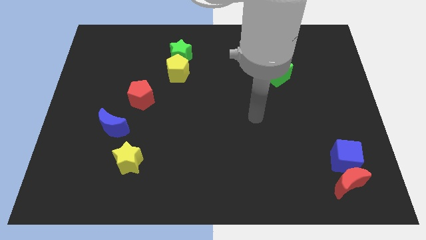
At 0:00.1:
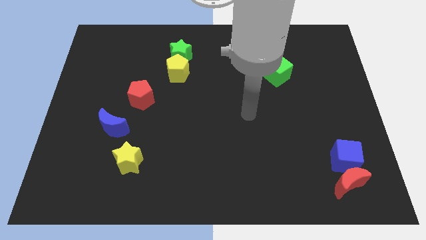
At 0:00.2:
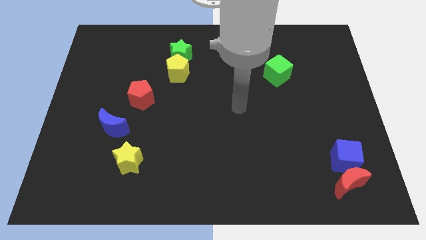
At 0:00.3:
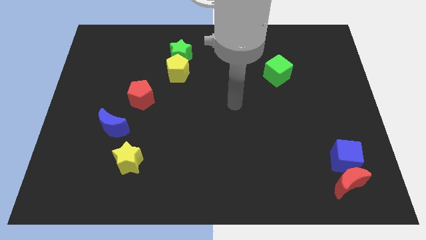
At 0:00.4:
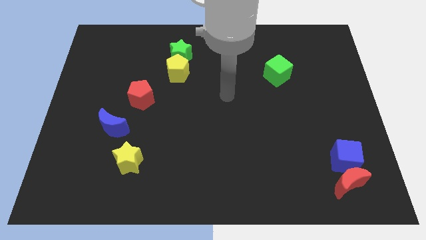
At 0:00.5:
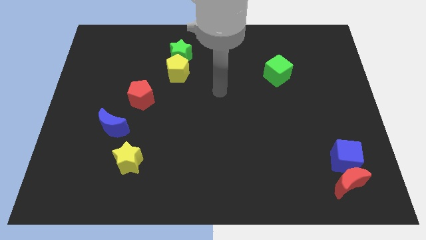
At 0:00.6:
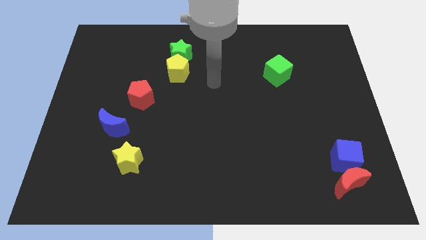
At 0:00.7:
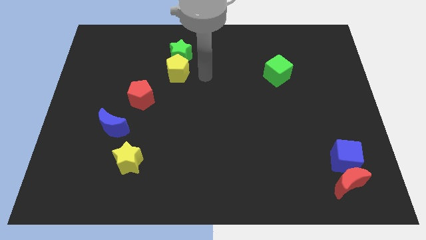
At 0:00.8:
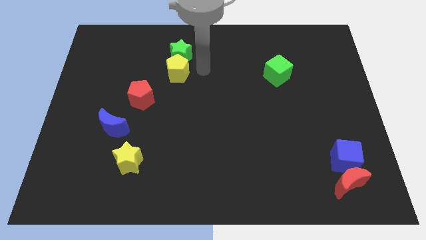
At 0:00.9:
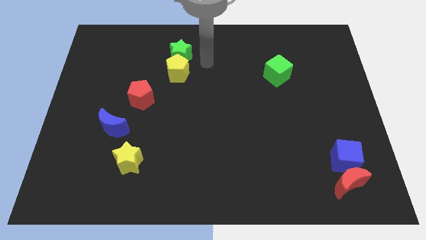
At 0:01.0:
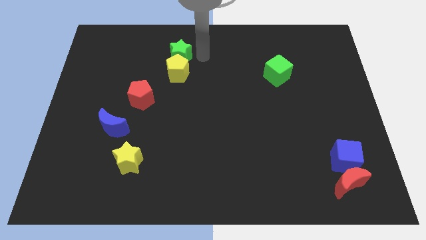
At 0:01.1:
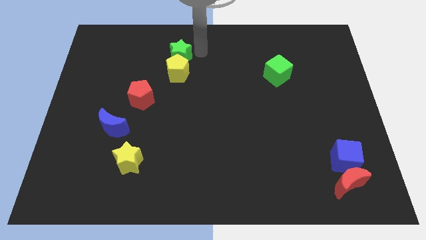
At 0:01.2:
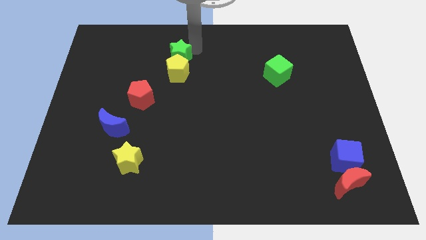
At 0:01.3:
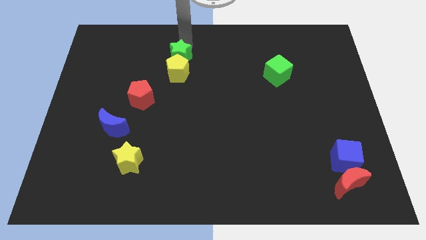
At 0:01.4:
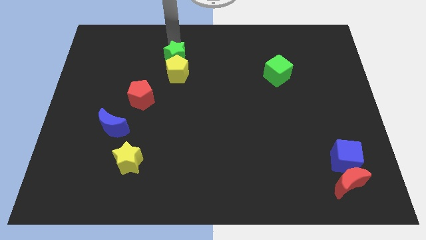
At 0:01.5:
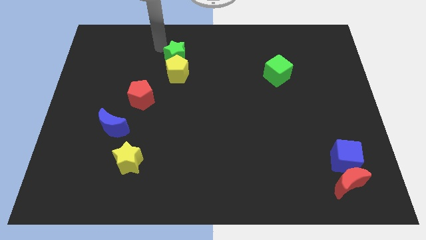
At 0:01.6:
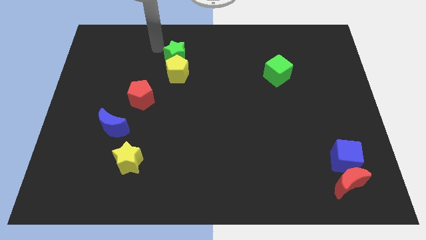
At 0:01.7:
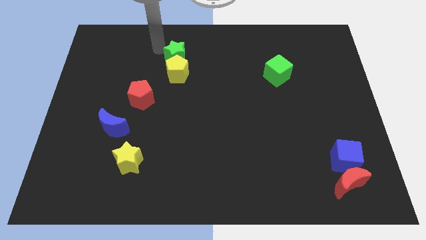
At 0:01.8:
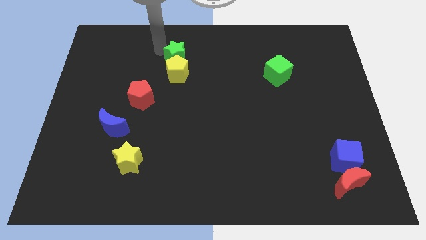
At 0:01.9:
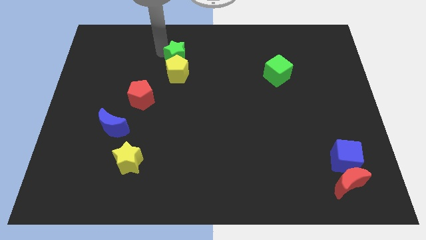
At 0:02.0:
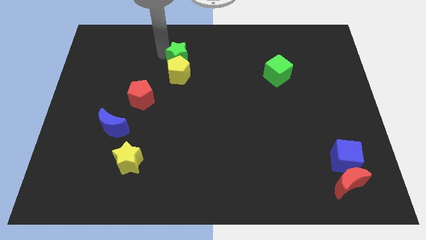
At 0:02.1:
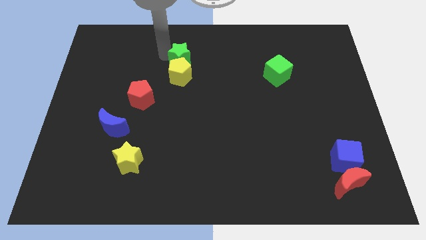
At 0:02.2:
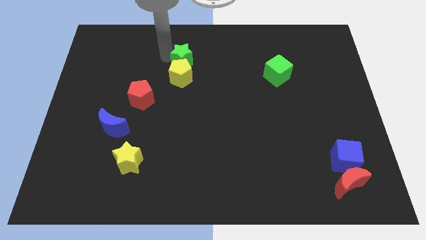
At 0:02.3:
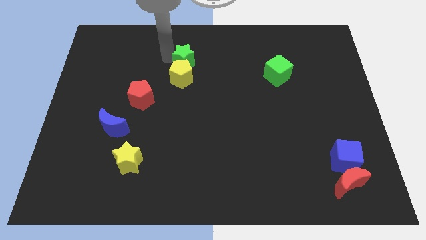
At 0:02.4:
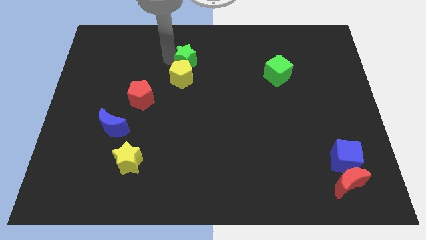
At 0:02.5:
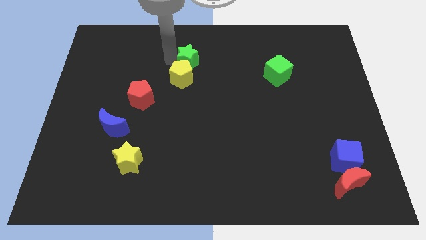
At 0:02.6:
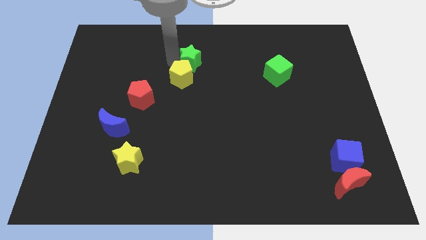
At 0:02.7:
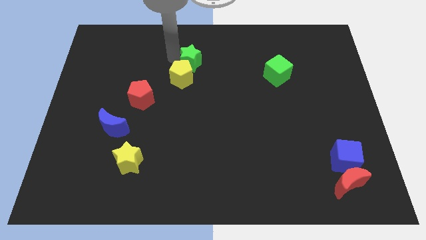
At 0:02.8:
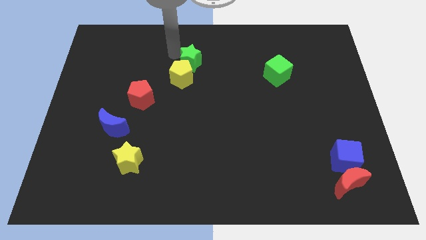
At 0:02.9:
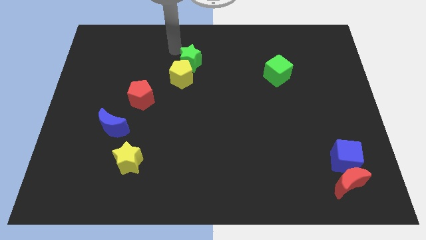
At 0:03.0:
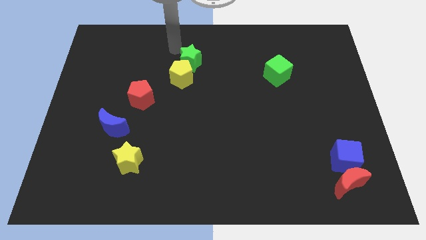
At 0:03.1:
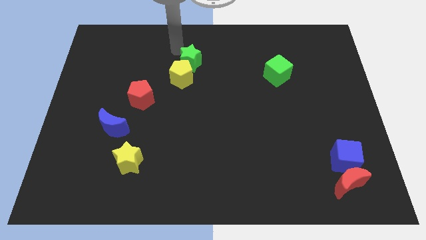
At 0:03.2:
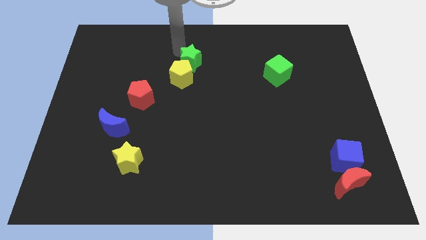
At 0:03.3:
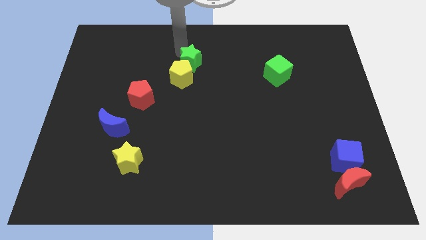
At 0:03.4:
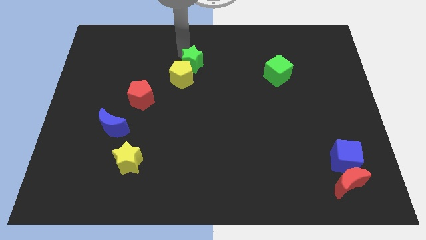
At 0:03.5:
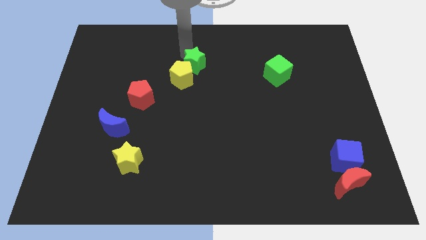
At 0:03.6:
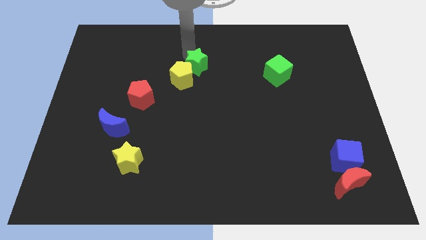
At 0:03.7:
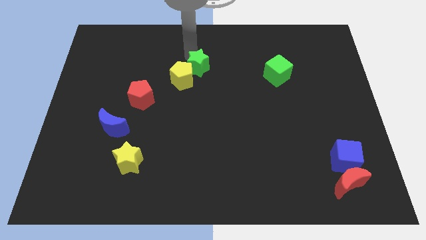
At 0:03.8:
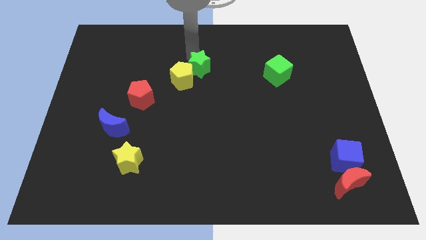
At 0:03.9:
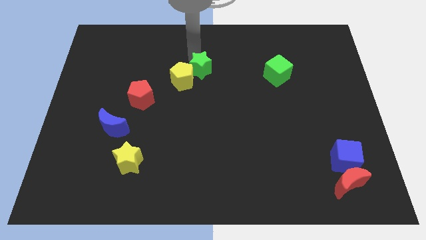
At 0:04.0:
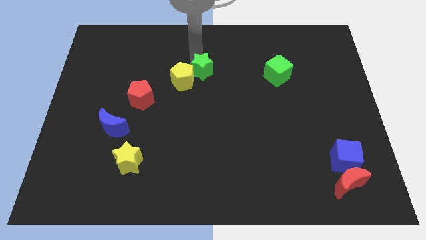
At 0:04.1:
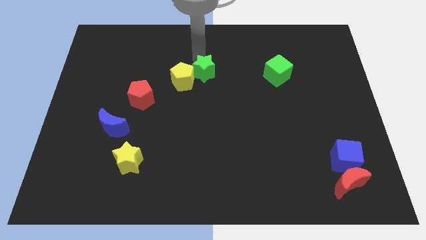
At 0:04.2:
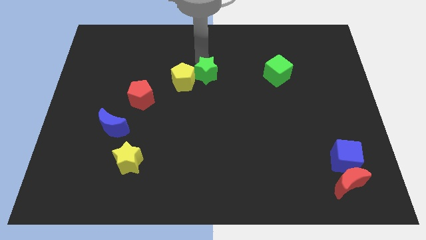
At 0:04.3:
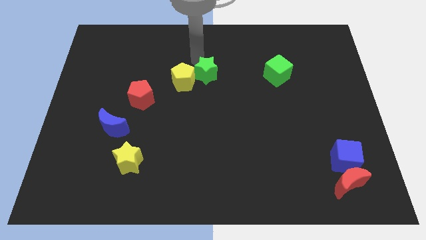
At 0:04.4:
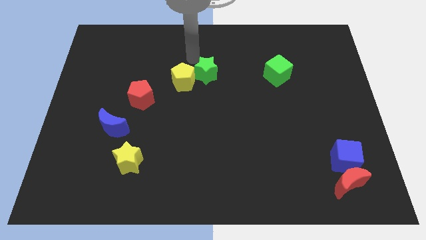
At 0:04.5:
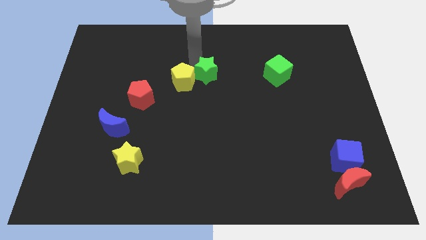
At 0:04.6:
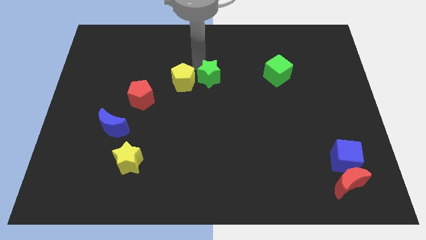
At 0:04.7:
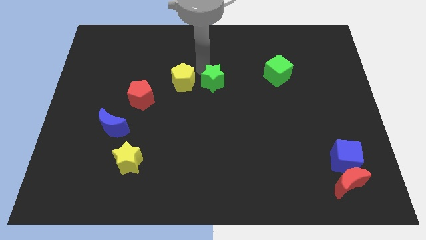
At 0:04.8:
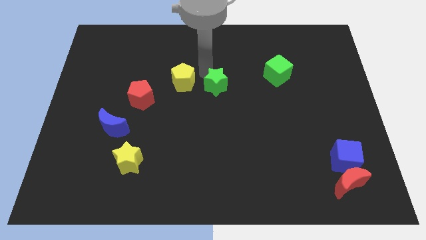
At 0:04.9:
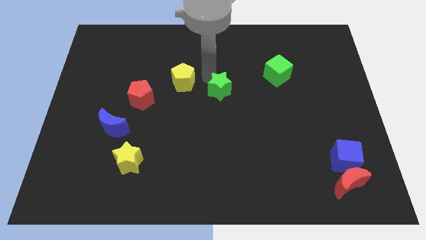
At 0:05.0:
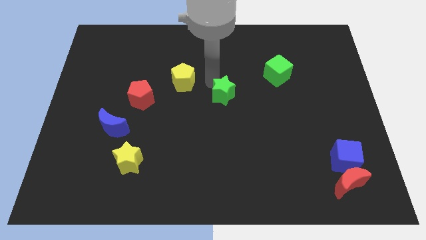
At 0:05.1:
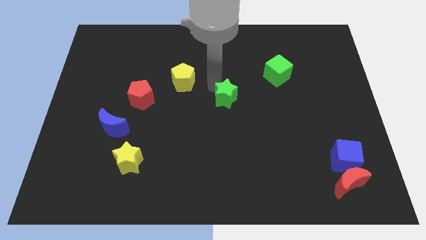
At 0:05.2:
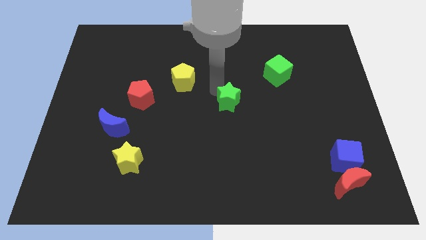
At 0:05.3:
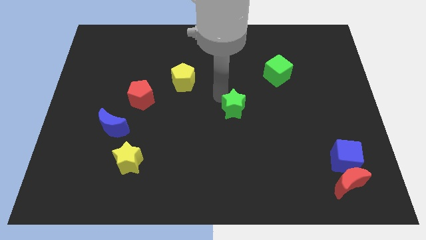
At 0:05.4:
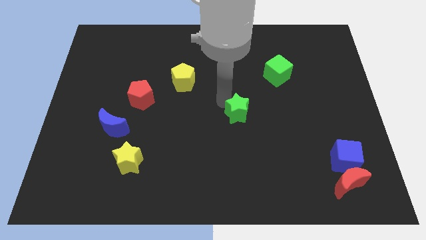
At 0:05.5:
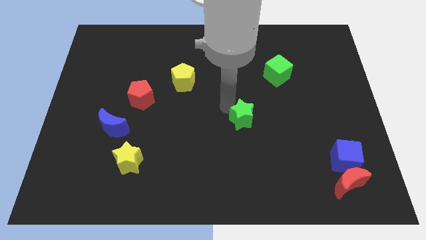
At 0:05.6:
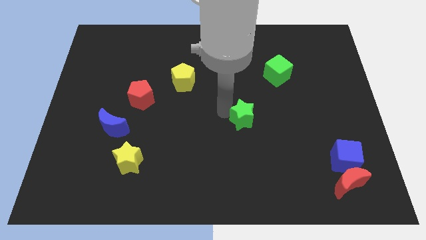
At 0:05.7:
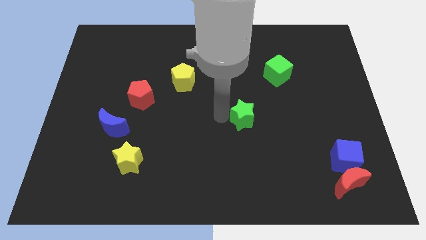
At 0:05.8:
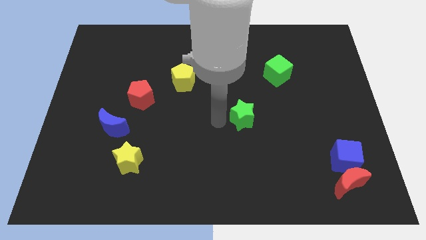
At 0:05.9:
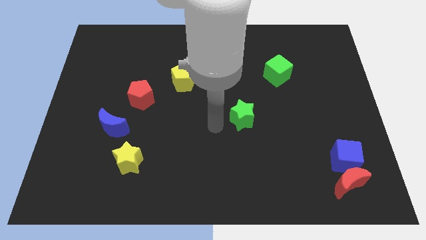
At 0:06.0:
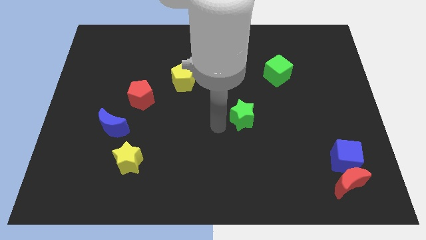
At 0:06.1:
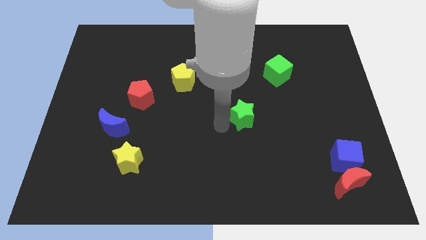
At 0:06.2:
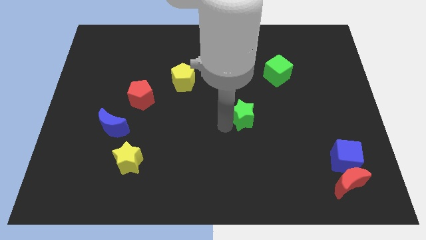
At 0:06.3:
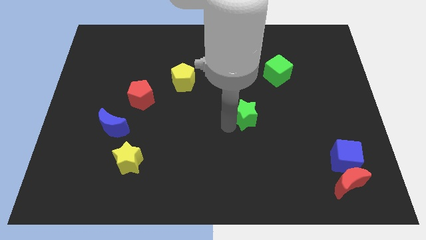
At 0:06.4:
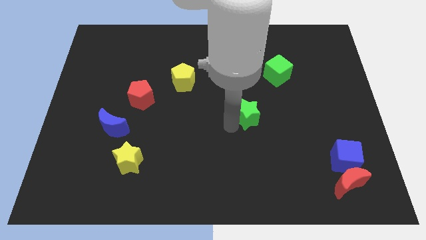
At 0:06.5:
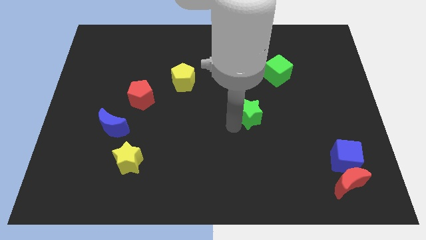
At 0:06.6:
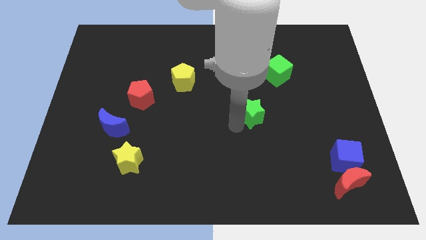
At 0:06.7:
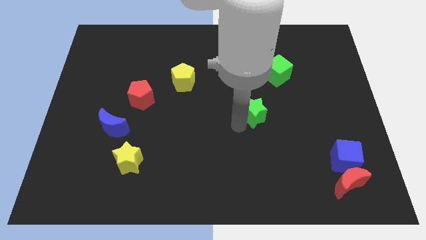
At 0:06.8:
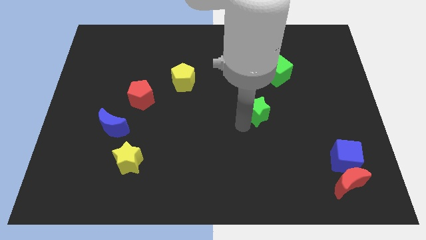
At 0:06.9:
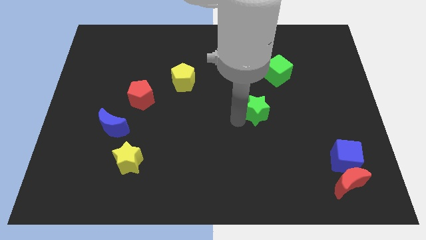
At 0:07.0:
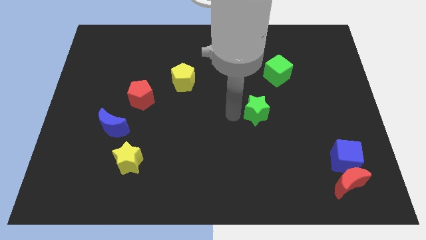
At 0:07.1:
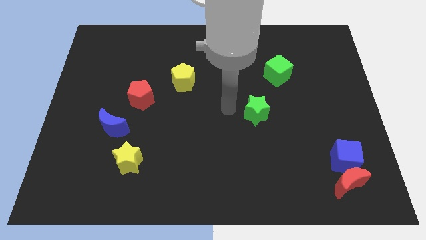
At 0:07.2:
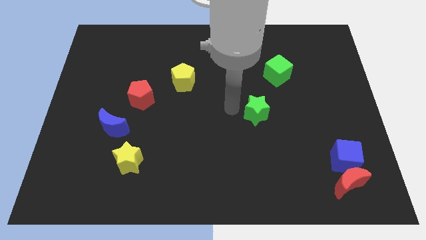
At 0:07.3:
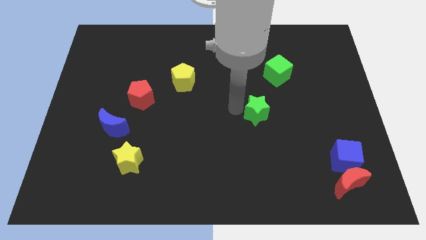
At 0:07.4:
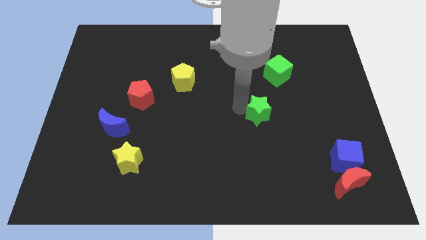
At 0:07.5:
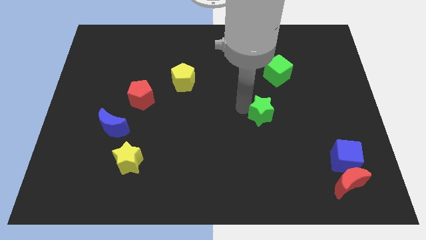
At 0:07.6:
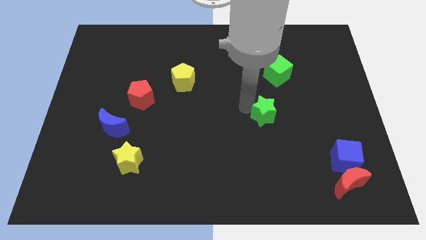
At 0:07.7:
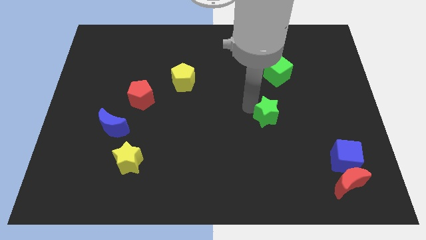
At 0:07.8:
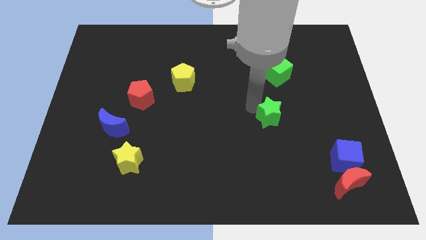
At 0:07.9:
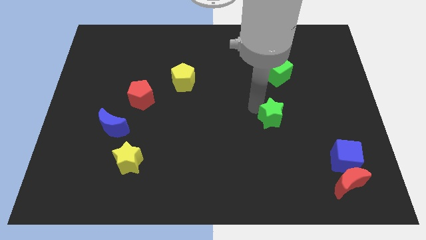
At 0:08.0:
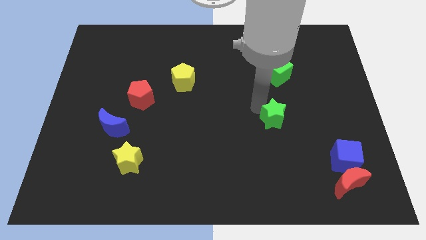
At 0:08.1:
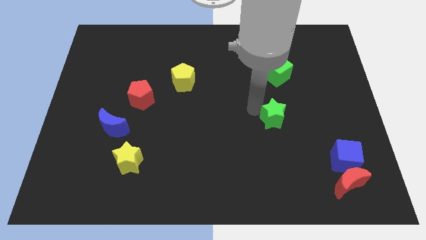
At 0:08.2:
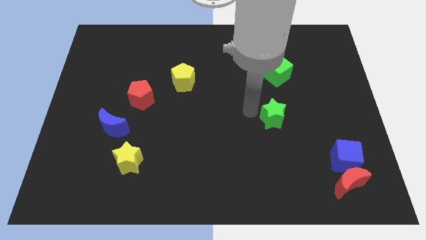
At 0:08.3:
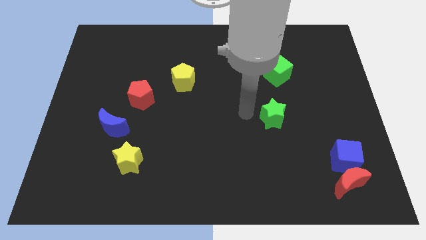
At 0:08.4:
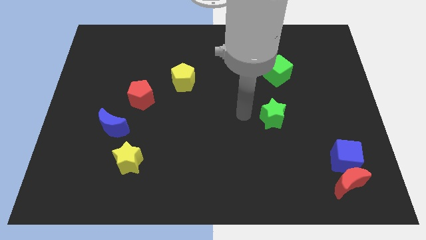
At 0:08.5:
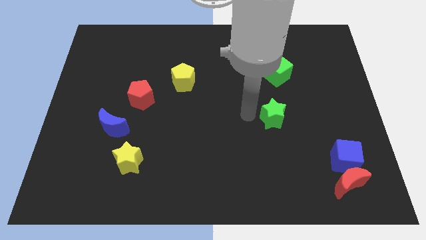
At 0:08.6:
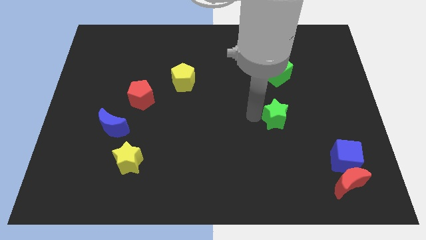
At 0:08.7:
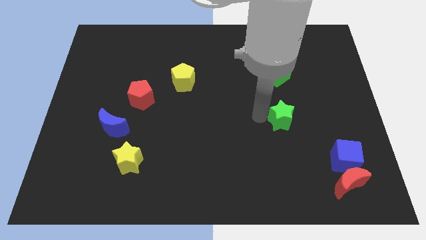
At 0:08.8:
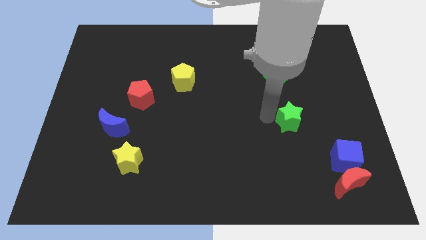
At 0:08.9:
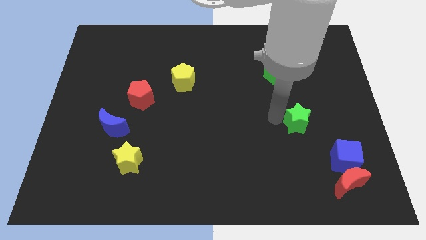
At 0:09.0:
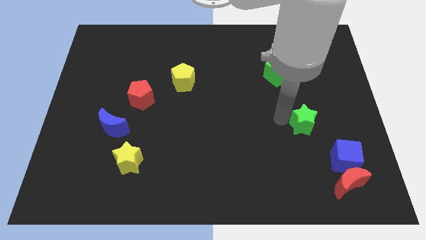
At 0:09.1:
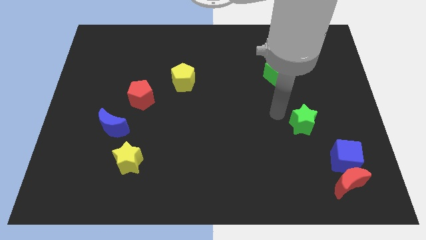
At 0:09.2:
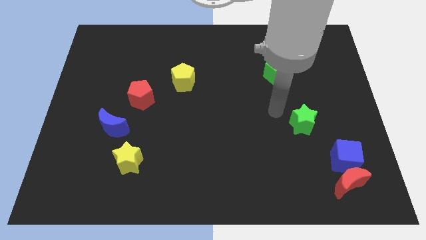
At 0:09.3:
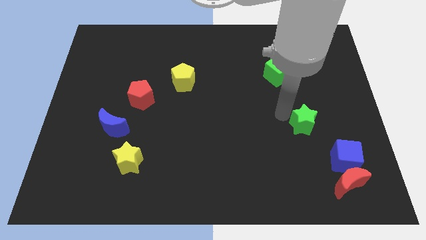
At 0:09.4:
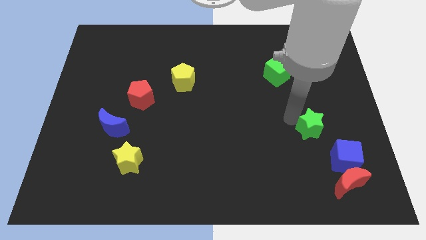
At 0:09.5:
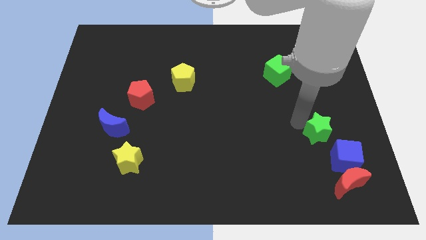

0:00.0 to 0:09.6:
put the green star to the top of the red moon
